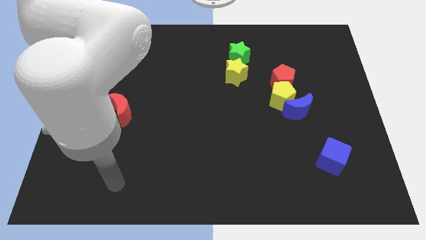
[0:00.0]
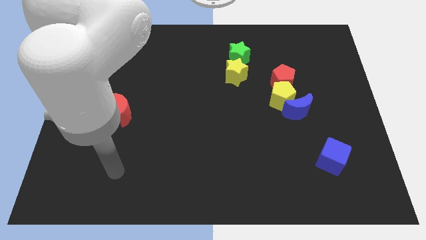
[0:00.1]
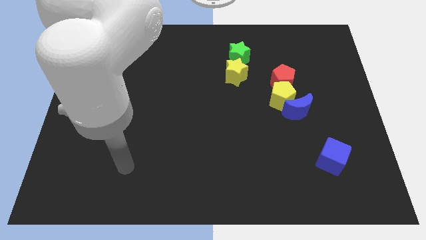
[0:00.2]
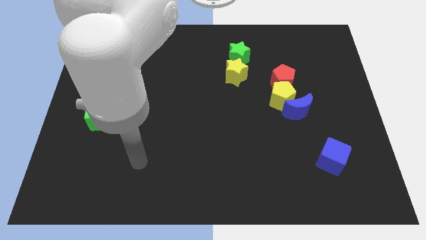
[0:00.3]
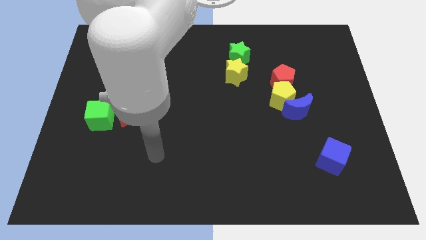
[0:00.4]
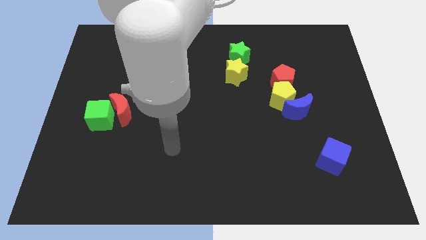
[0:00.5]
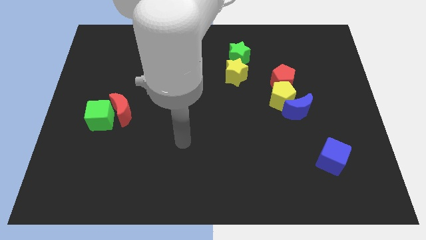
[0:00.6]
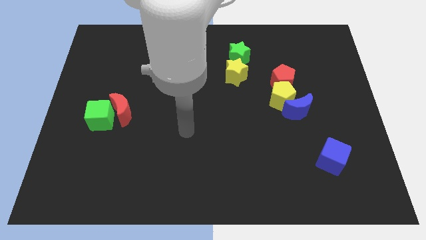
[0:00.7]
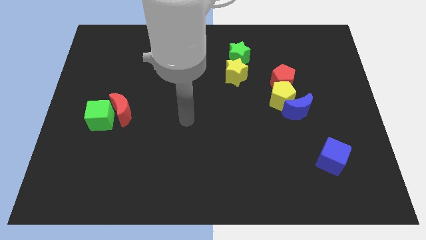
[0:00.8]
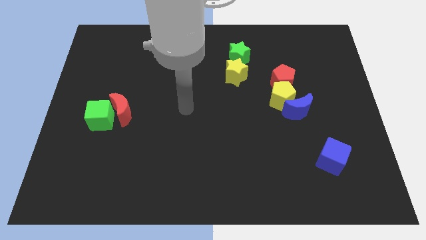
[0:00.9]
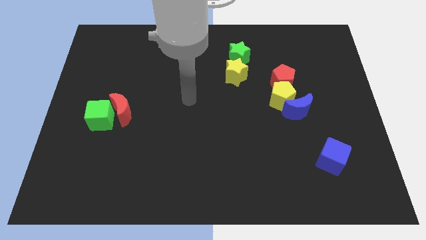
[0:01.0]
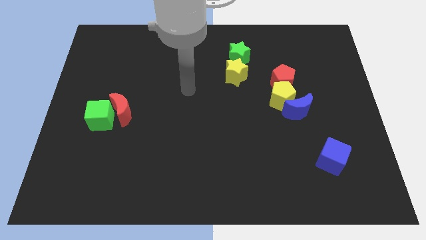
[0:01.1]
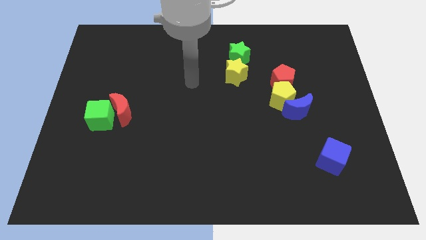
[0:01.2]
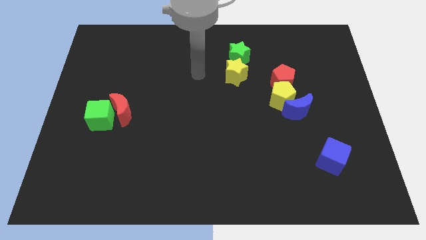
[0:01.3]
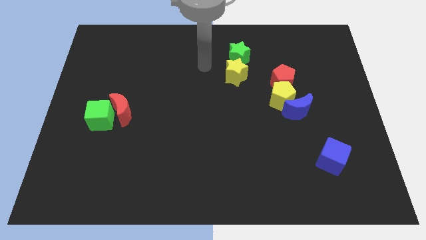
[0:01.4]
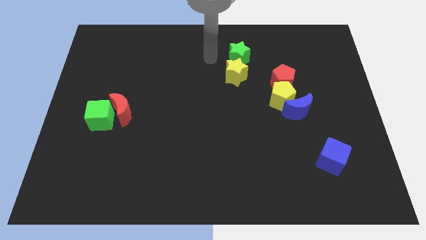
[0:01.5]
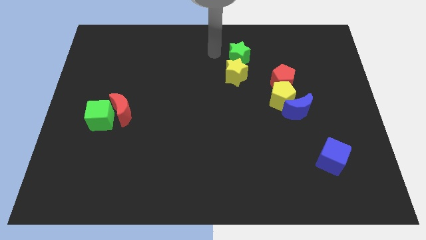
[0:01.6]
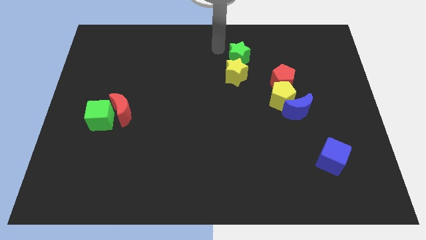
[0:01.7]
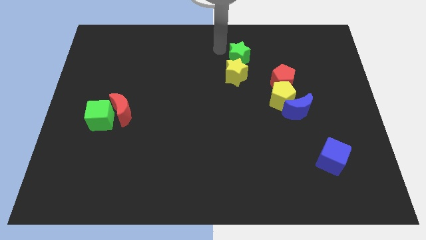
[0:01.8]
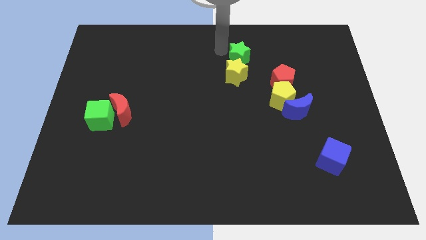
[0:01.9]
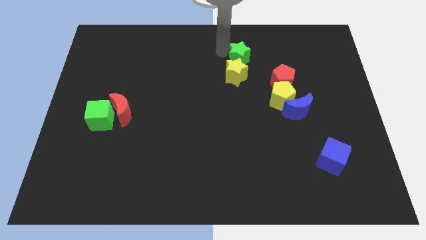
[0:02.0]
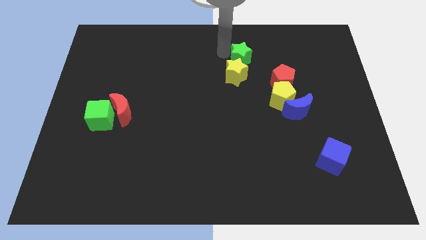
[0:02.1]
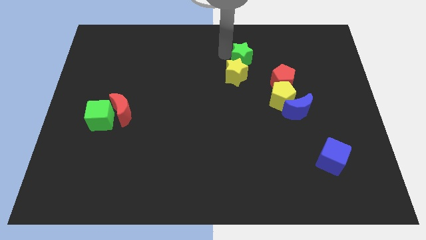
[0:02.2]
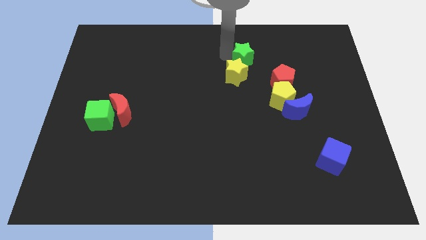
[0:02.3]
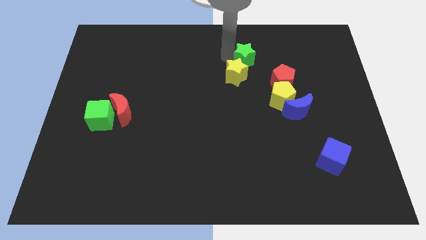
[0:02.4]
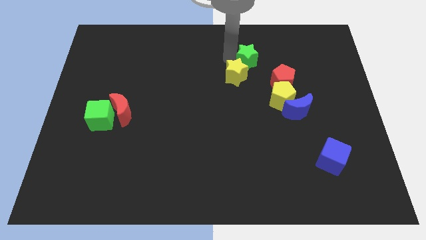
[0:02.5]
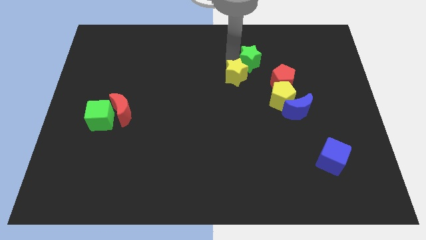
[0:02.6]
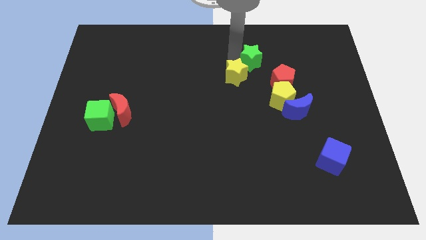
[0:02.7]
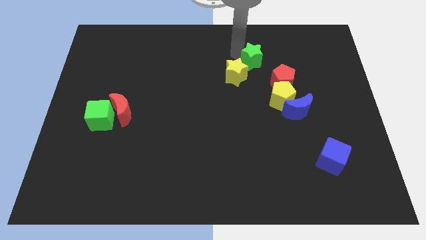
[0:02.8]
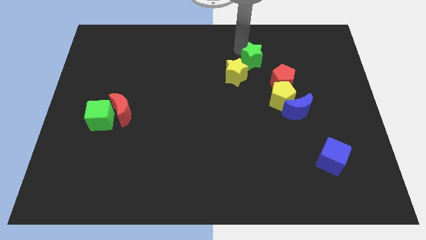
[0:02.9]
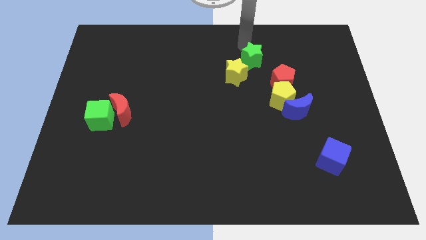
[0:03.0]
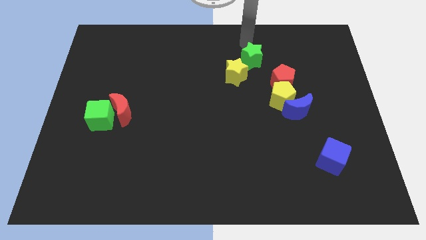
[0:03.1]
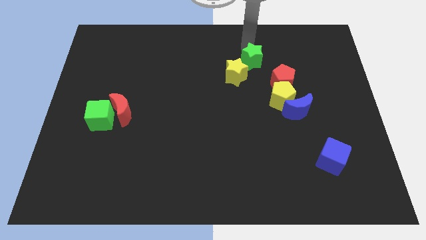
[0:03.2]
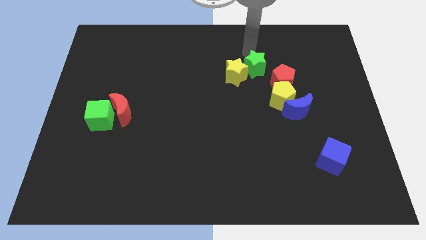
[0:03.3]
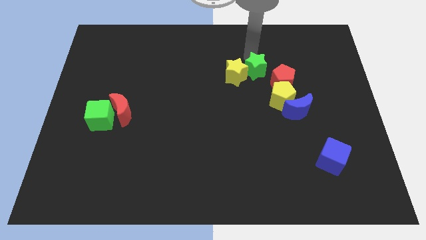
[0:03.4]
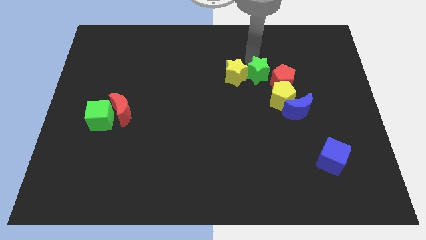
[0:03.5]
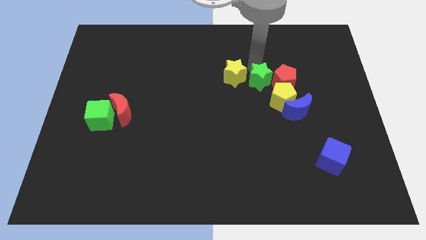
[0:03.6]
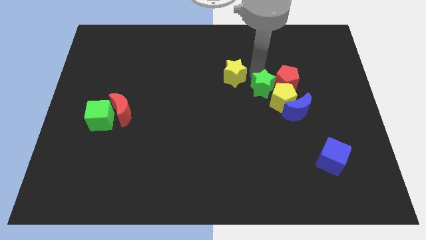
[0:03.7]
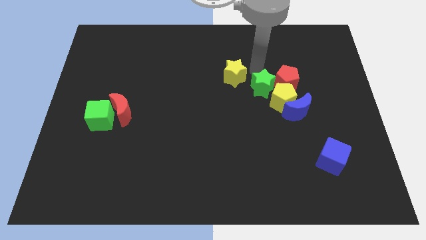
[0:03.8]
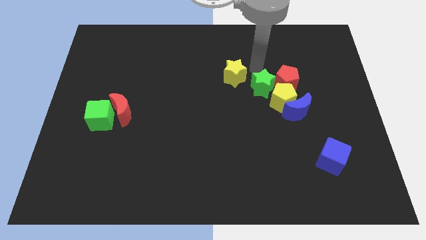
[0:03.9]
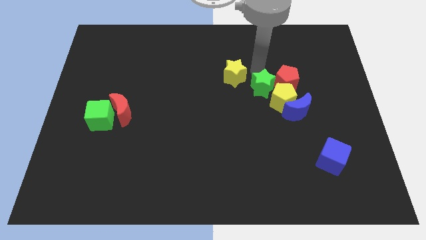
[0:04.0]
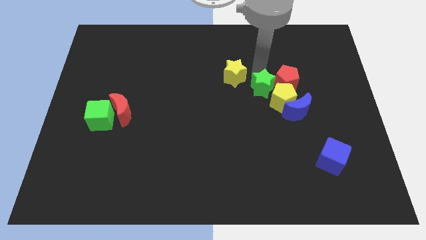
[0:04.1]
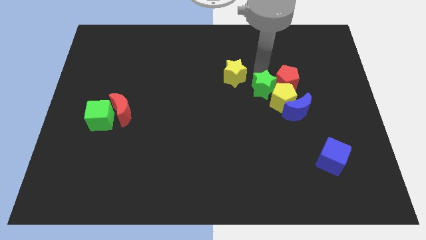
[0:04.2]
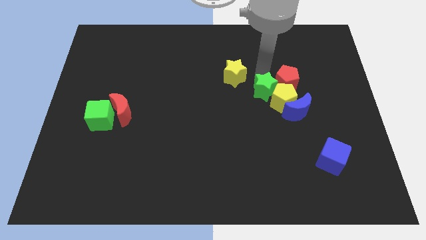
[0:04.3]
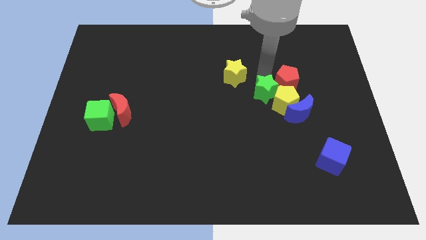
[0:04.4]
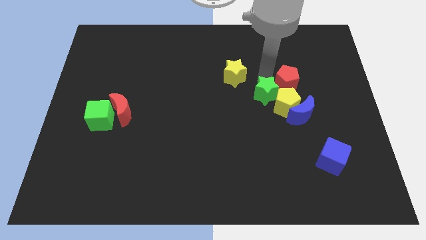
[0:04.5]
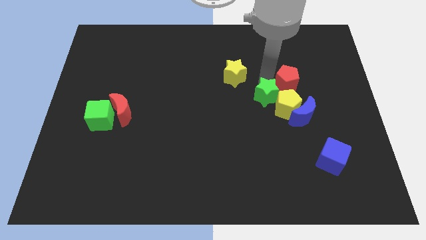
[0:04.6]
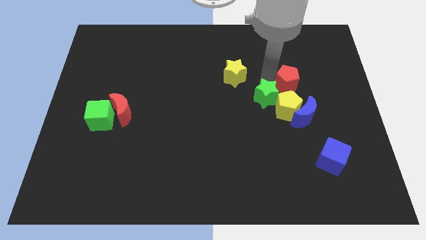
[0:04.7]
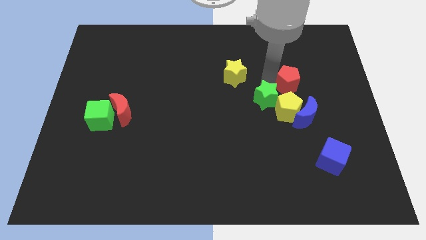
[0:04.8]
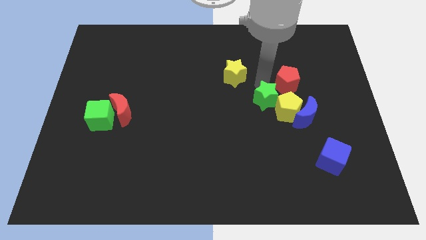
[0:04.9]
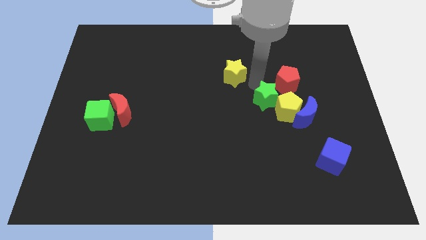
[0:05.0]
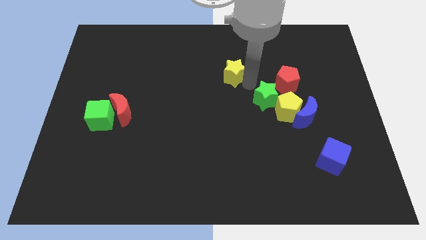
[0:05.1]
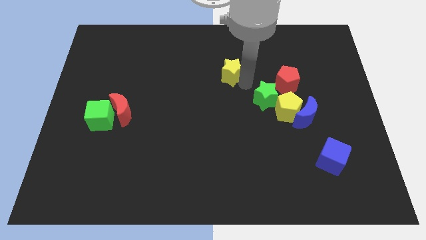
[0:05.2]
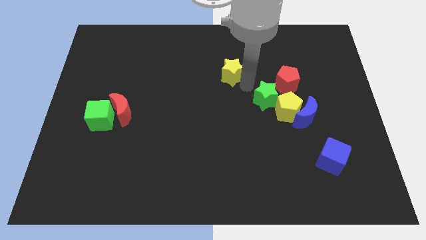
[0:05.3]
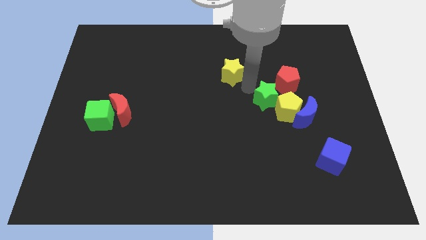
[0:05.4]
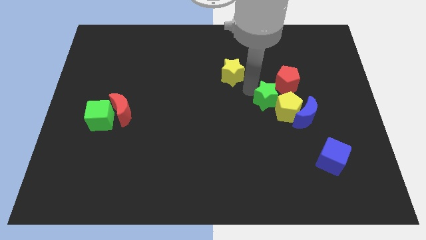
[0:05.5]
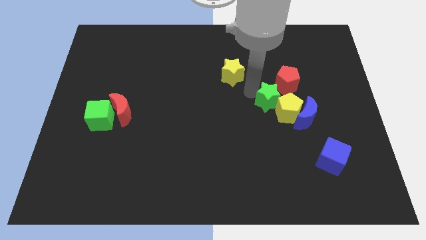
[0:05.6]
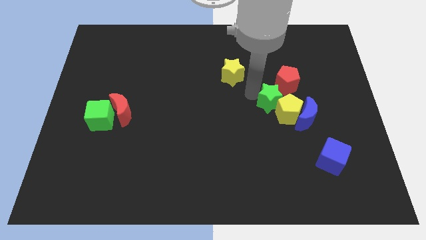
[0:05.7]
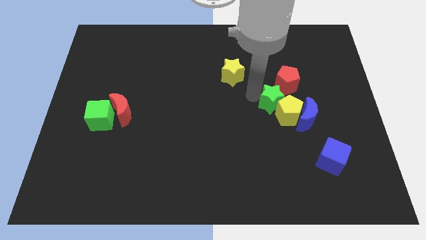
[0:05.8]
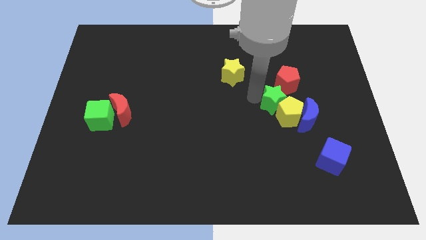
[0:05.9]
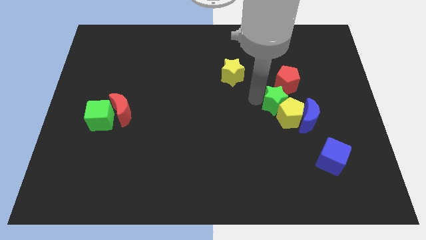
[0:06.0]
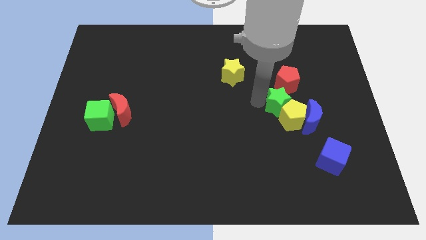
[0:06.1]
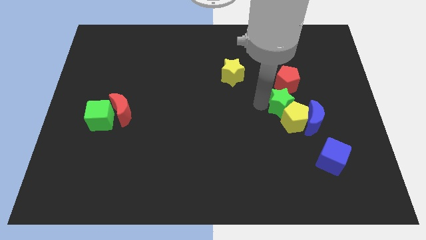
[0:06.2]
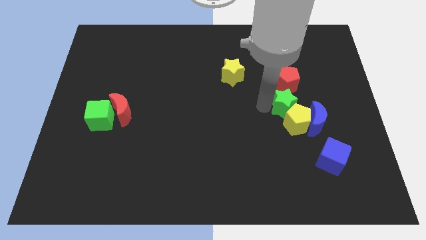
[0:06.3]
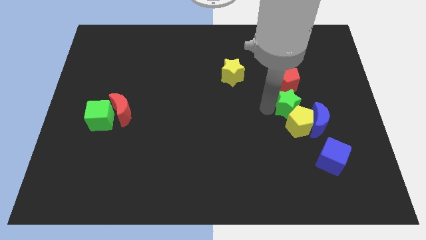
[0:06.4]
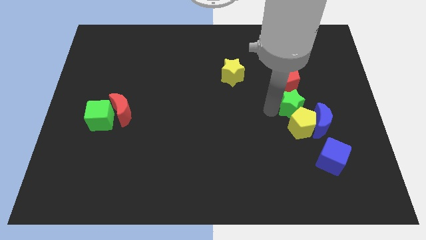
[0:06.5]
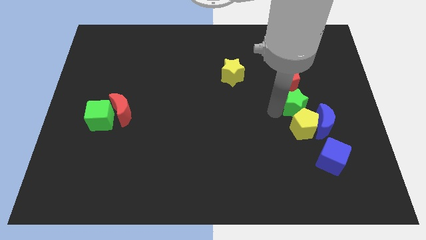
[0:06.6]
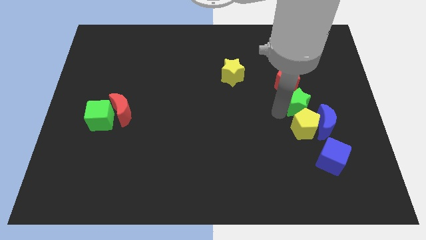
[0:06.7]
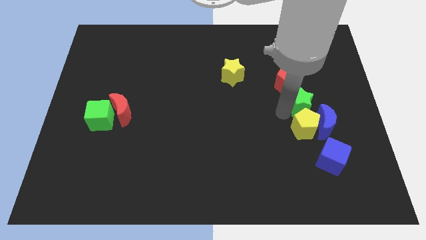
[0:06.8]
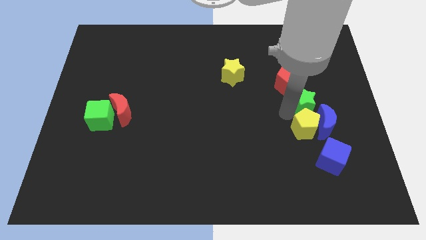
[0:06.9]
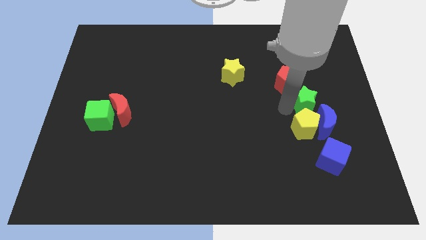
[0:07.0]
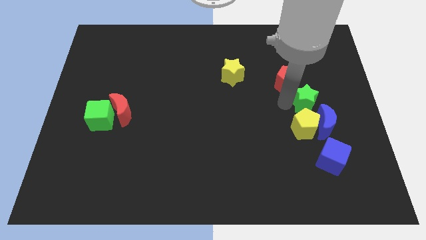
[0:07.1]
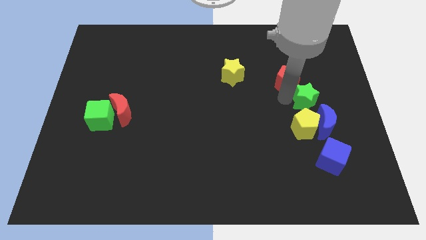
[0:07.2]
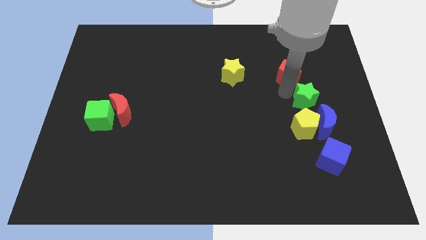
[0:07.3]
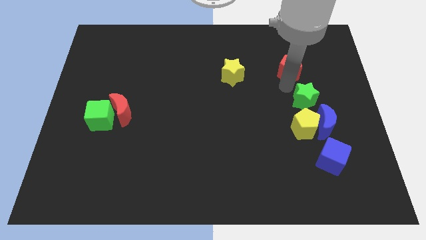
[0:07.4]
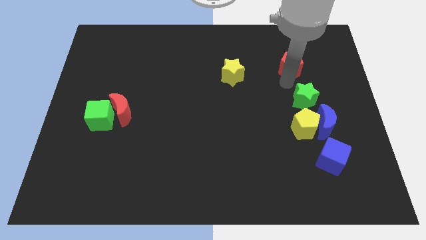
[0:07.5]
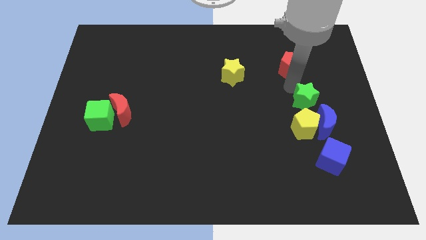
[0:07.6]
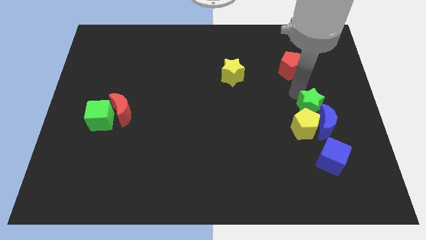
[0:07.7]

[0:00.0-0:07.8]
slide the green star close to the blue moon
